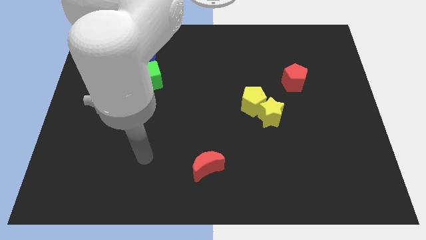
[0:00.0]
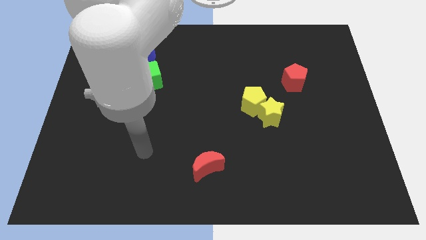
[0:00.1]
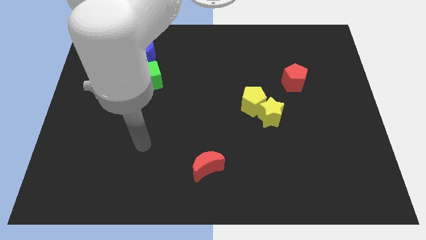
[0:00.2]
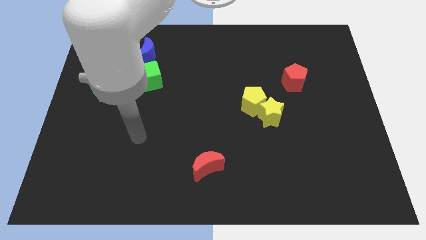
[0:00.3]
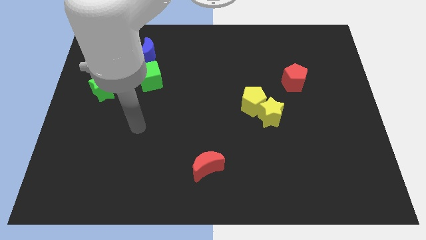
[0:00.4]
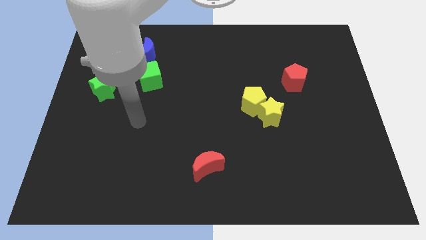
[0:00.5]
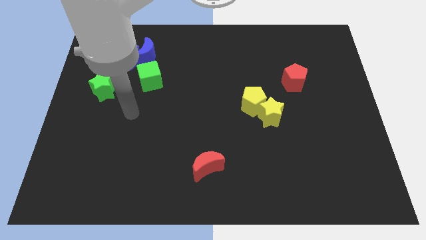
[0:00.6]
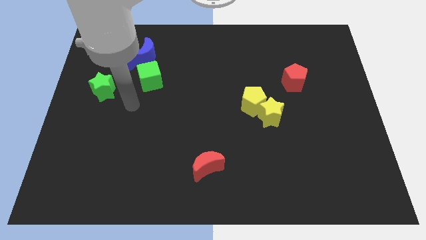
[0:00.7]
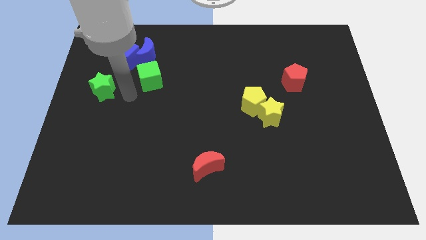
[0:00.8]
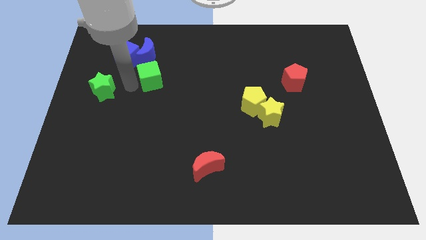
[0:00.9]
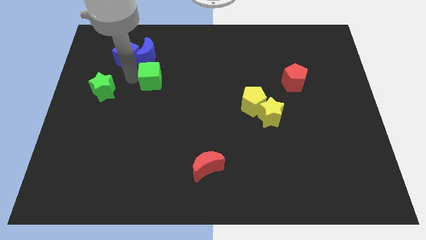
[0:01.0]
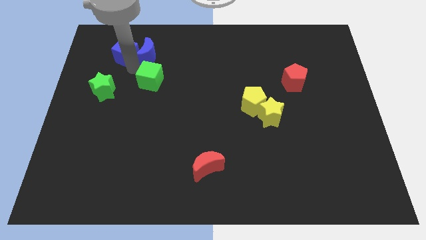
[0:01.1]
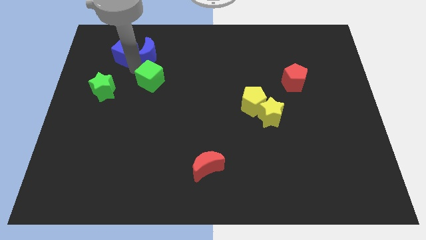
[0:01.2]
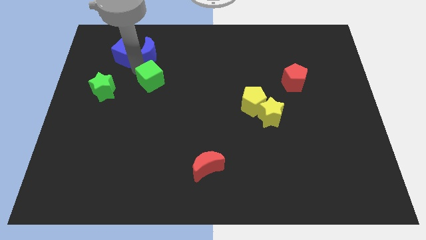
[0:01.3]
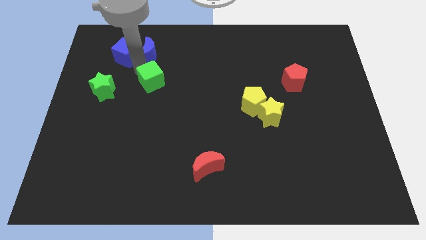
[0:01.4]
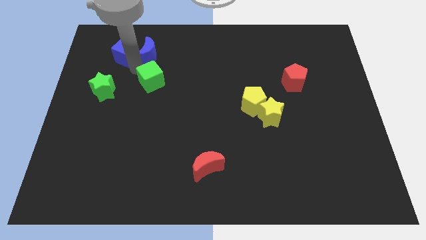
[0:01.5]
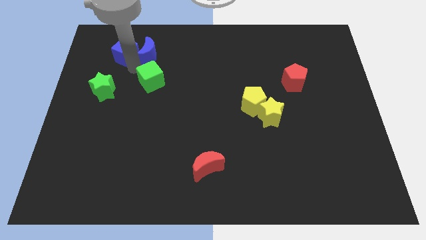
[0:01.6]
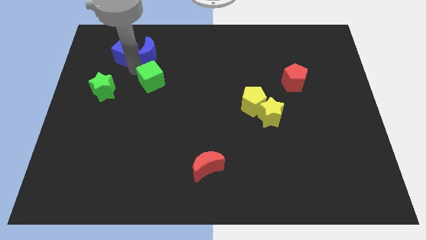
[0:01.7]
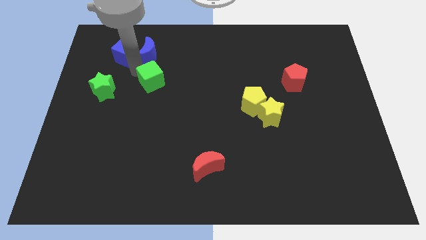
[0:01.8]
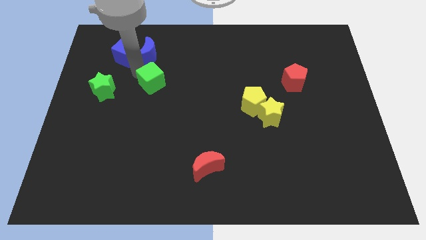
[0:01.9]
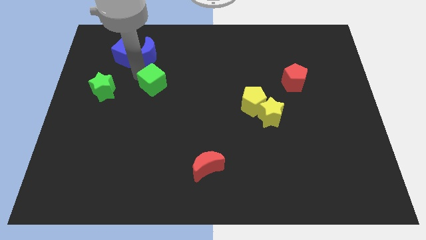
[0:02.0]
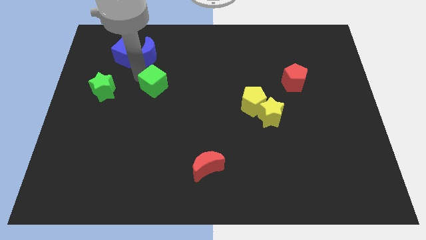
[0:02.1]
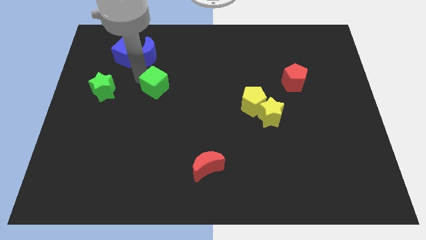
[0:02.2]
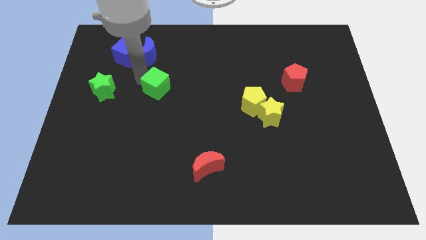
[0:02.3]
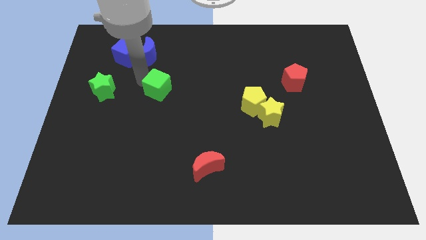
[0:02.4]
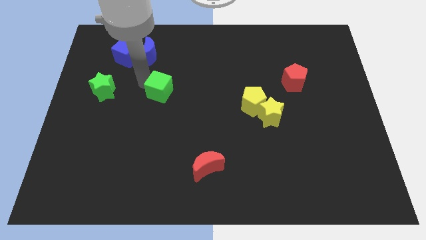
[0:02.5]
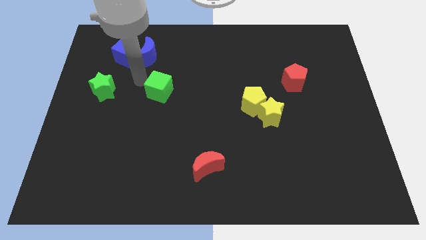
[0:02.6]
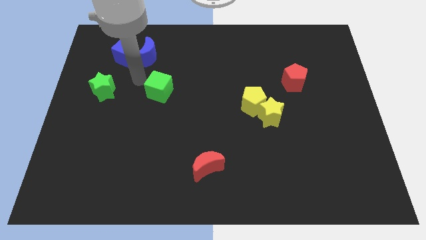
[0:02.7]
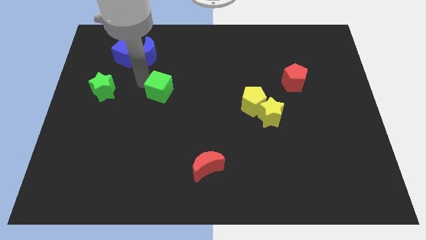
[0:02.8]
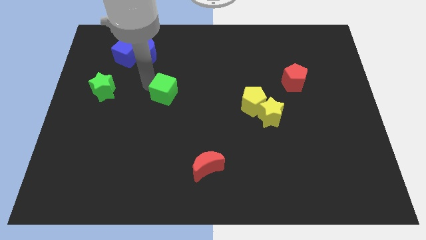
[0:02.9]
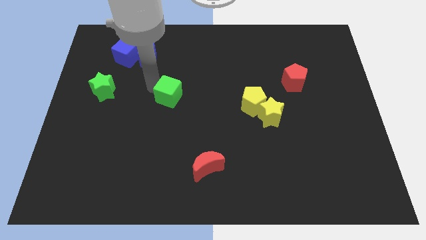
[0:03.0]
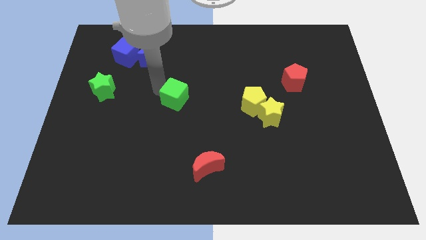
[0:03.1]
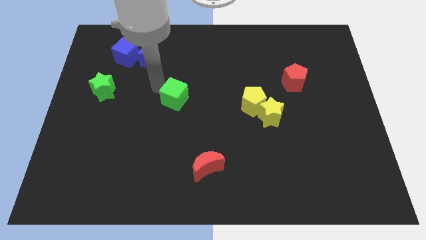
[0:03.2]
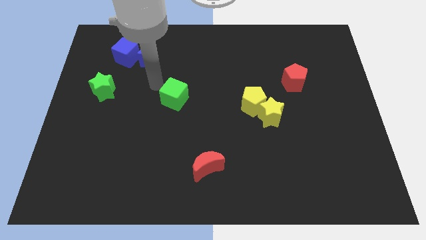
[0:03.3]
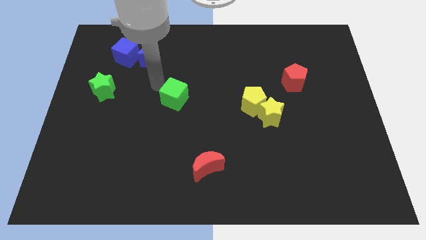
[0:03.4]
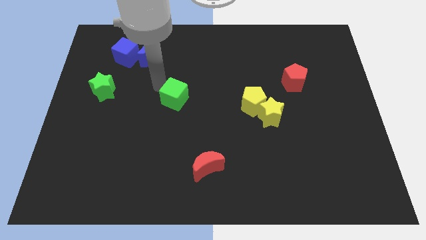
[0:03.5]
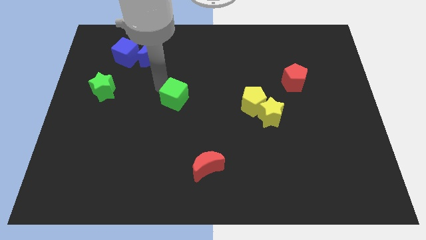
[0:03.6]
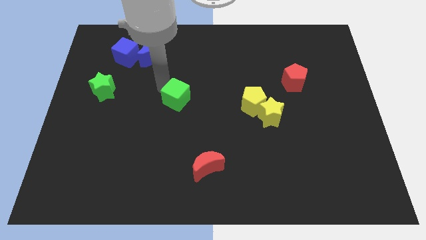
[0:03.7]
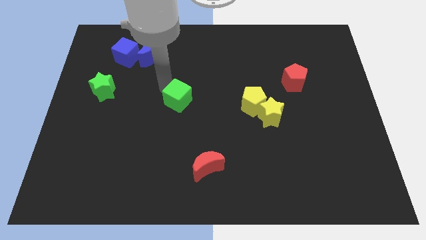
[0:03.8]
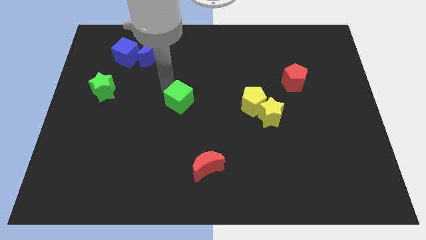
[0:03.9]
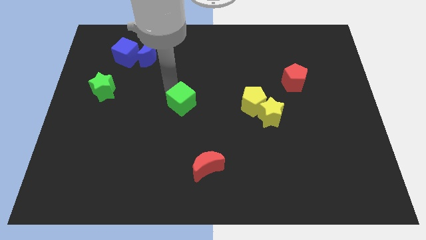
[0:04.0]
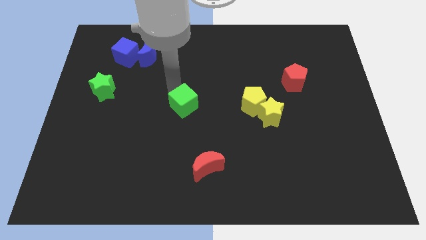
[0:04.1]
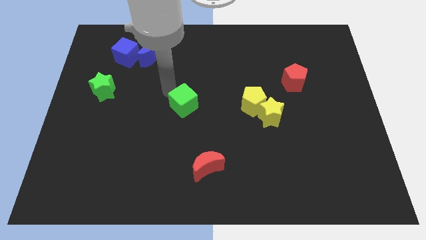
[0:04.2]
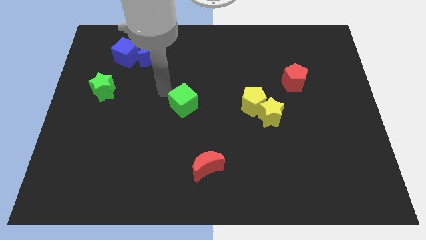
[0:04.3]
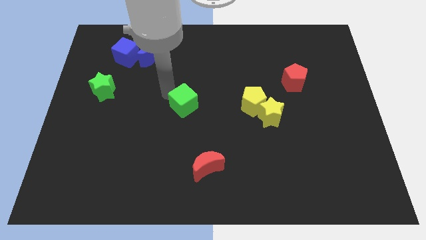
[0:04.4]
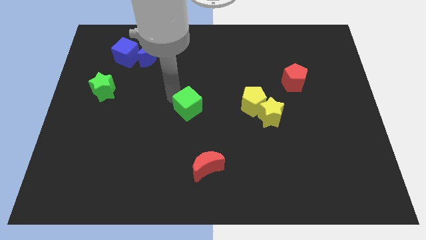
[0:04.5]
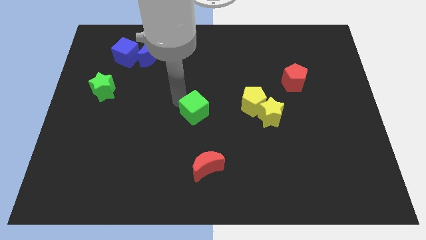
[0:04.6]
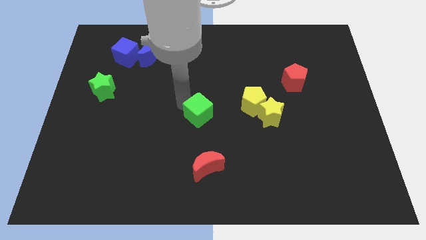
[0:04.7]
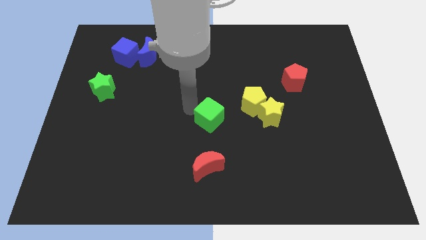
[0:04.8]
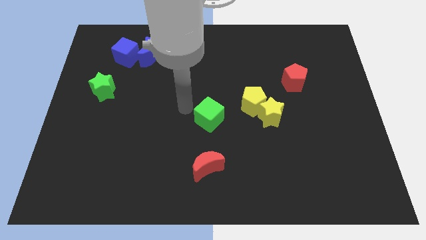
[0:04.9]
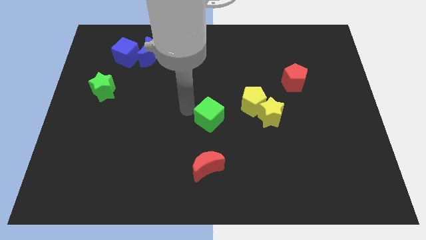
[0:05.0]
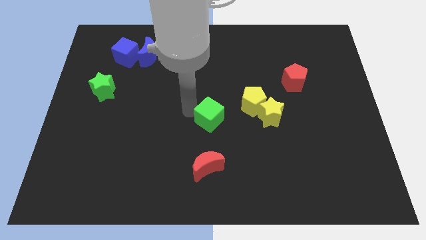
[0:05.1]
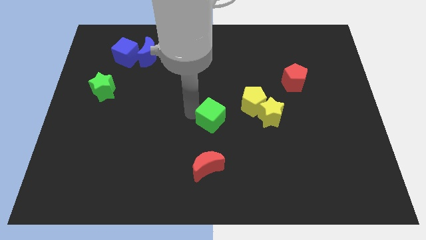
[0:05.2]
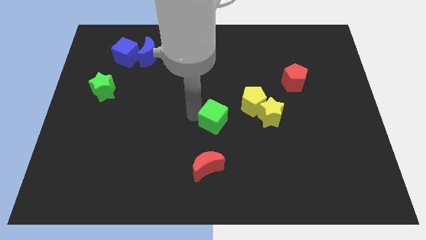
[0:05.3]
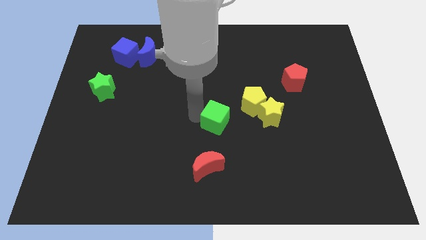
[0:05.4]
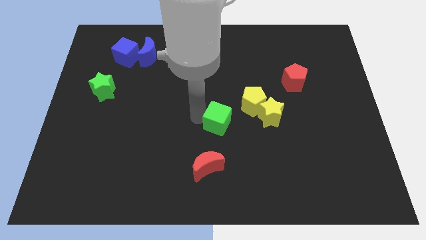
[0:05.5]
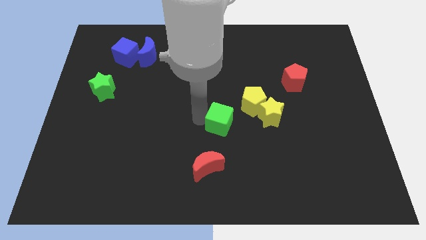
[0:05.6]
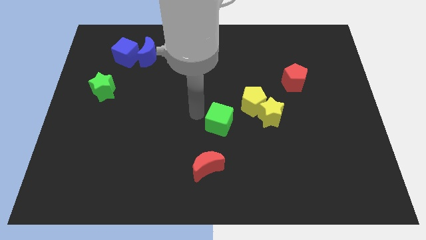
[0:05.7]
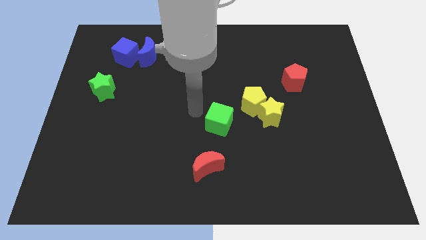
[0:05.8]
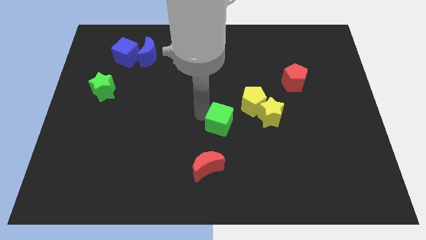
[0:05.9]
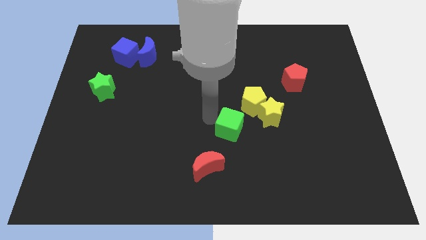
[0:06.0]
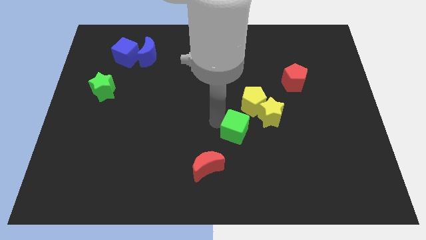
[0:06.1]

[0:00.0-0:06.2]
slide the green cube to the bottom of the yellow pentagon
